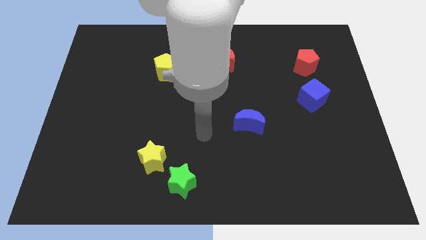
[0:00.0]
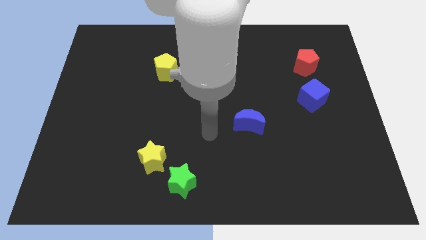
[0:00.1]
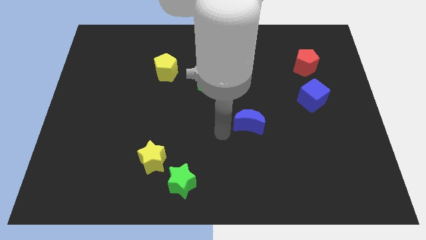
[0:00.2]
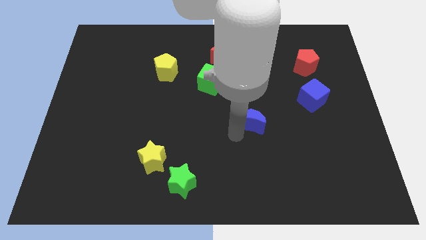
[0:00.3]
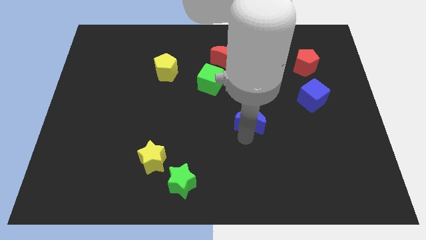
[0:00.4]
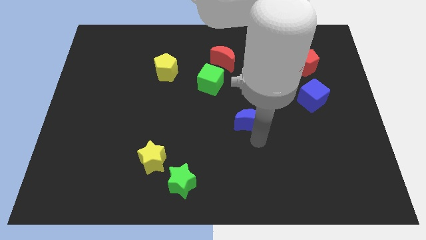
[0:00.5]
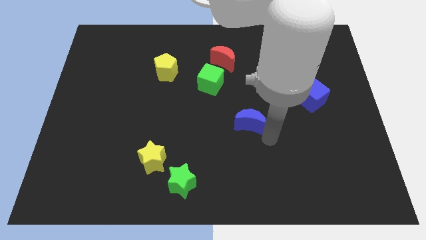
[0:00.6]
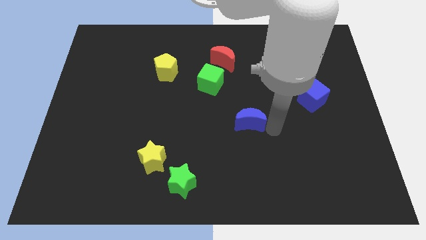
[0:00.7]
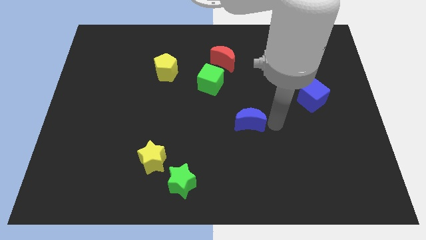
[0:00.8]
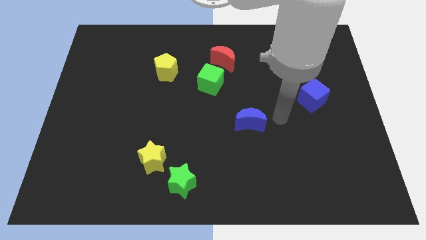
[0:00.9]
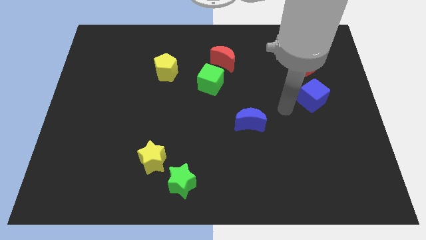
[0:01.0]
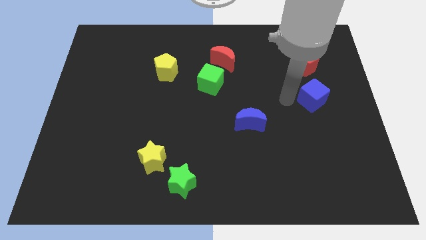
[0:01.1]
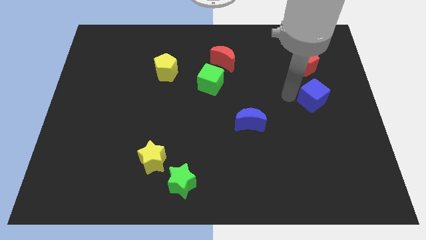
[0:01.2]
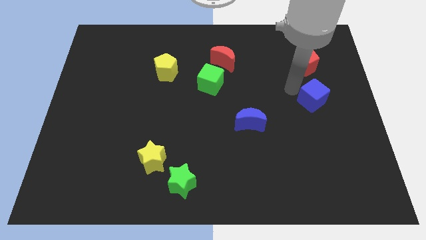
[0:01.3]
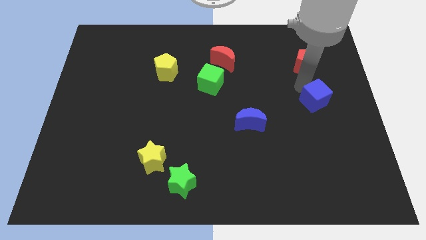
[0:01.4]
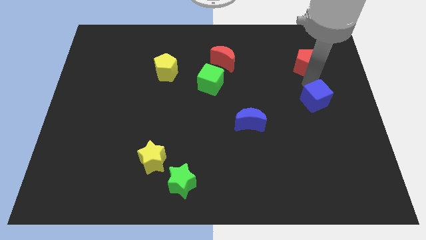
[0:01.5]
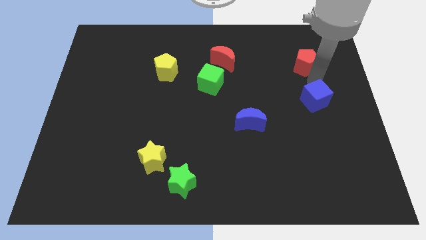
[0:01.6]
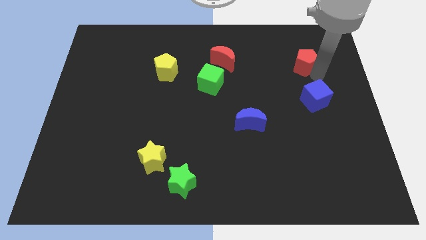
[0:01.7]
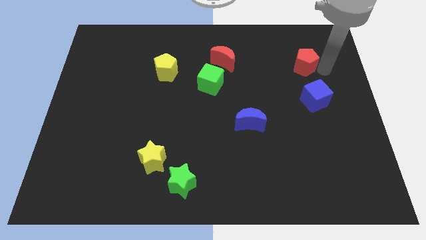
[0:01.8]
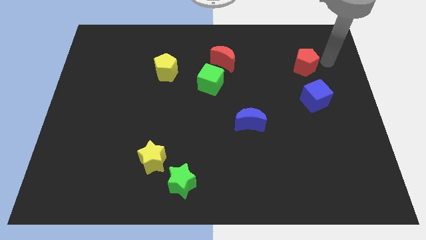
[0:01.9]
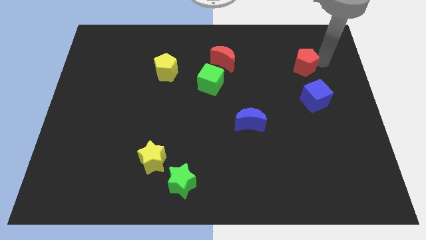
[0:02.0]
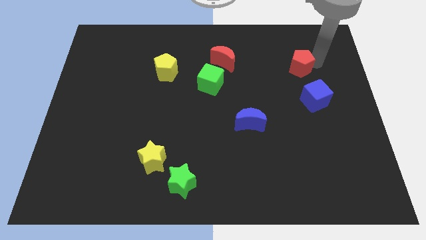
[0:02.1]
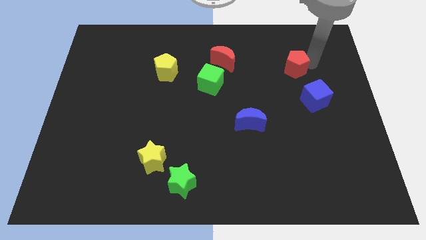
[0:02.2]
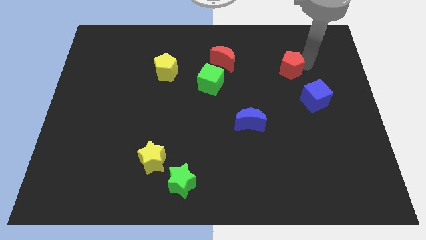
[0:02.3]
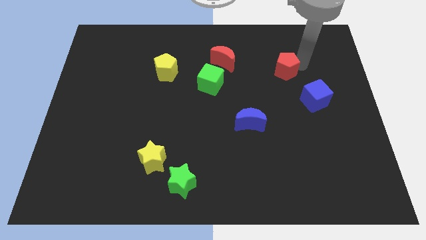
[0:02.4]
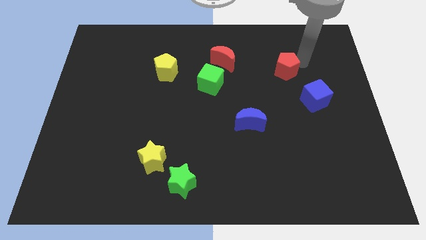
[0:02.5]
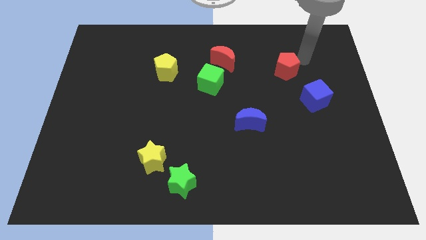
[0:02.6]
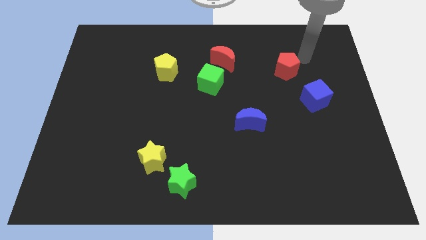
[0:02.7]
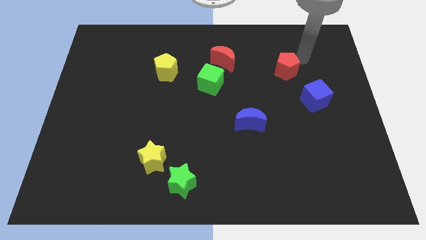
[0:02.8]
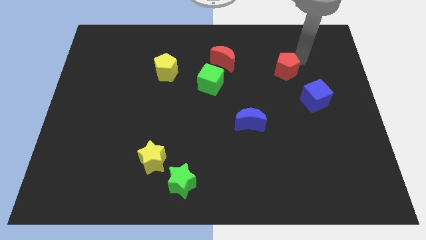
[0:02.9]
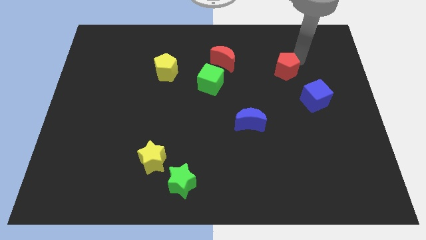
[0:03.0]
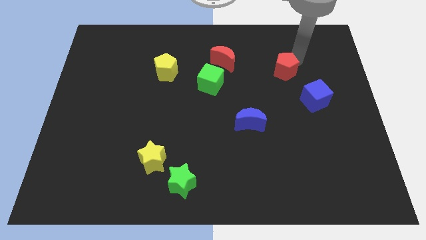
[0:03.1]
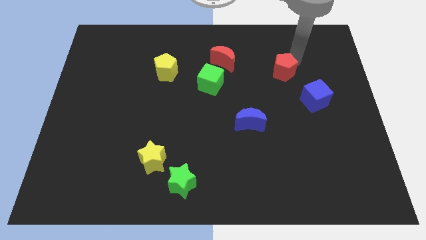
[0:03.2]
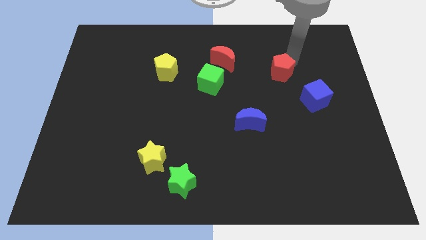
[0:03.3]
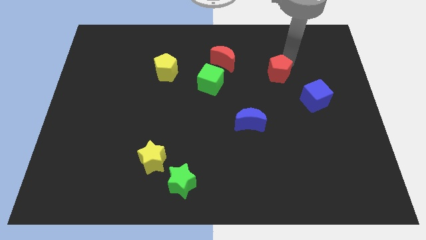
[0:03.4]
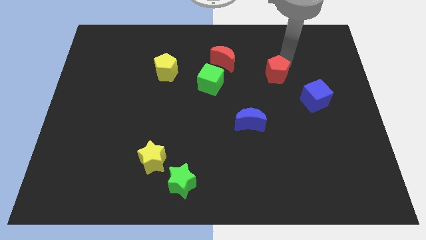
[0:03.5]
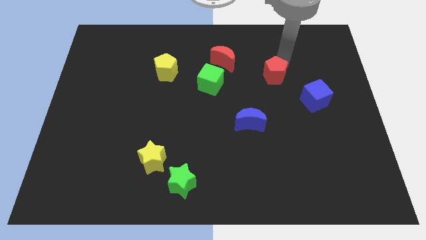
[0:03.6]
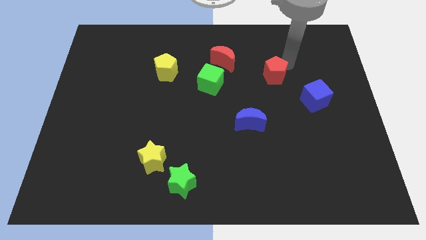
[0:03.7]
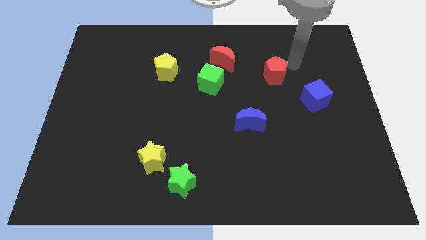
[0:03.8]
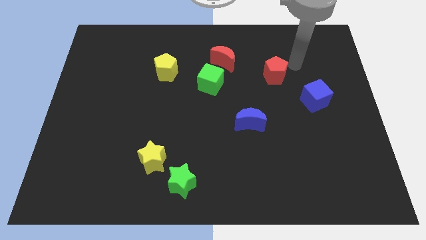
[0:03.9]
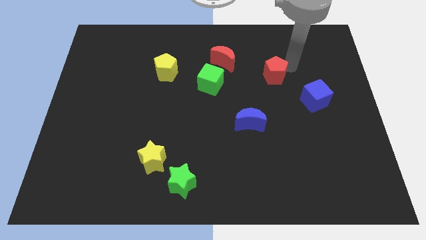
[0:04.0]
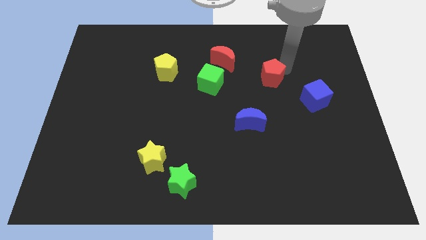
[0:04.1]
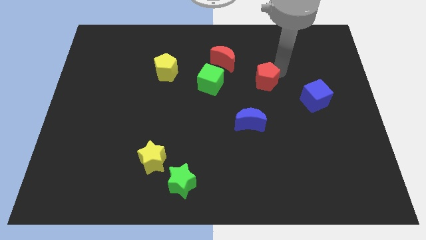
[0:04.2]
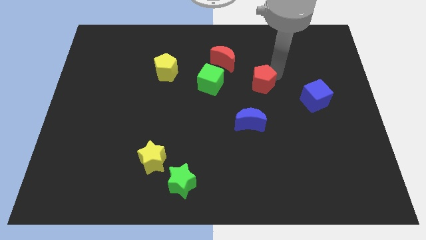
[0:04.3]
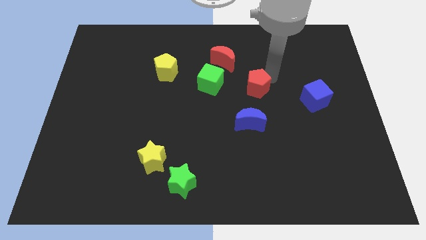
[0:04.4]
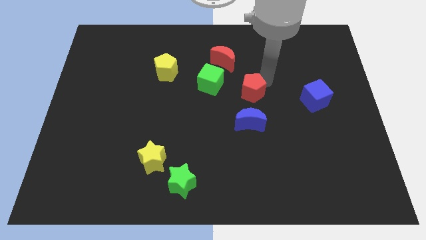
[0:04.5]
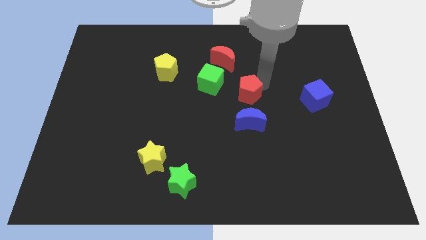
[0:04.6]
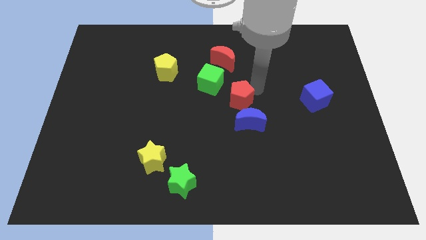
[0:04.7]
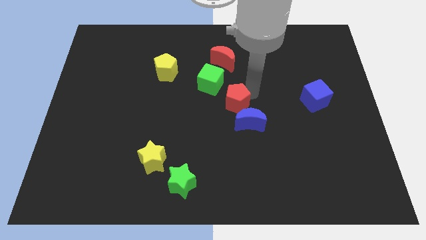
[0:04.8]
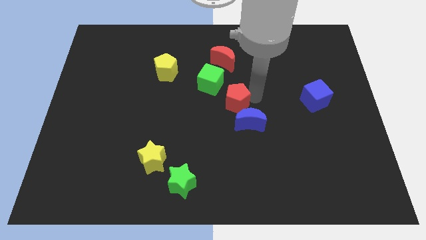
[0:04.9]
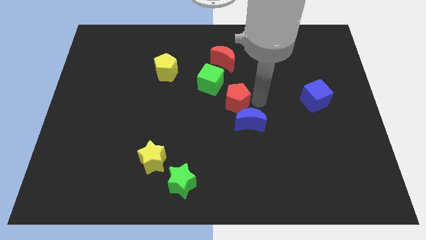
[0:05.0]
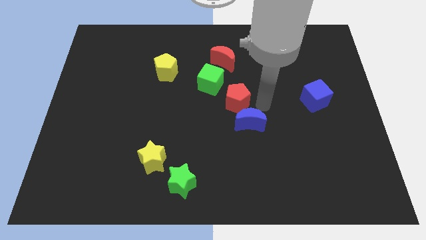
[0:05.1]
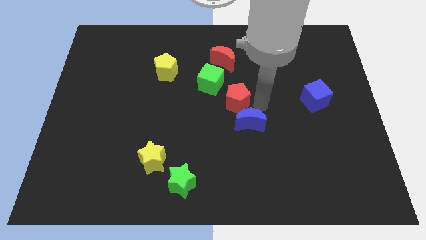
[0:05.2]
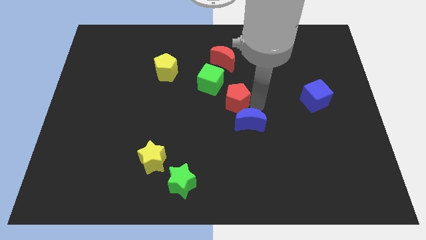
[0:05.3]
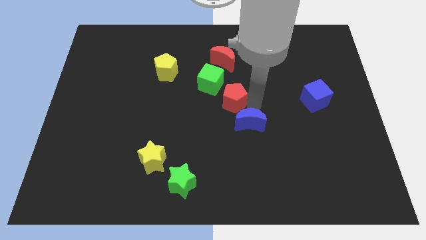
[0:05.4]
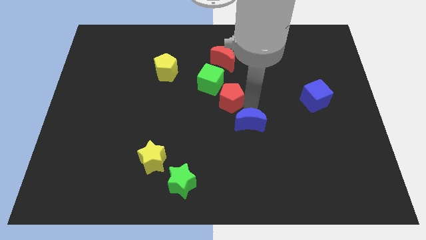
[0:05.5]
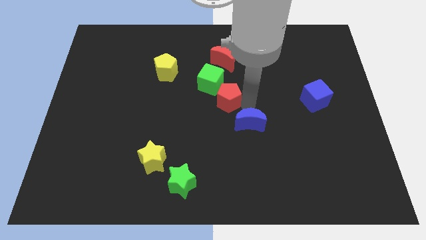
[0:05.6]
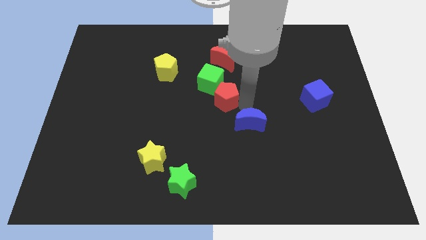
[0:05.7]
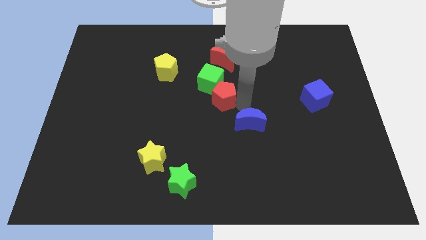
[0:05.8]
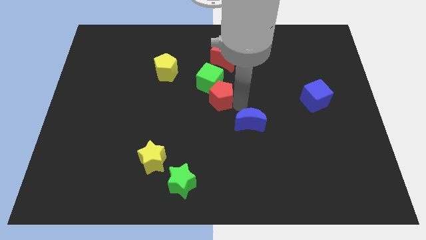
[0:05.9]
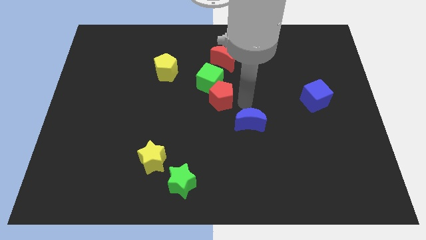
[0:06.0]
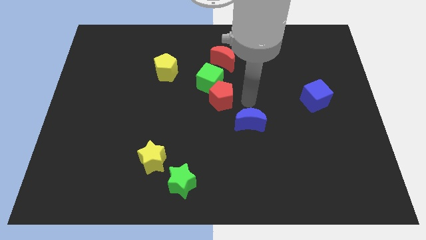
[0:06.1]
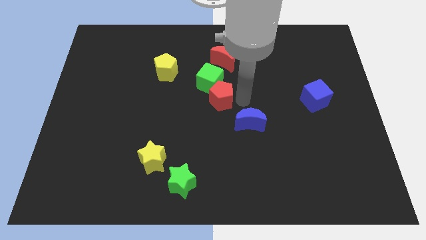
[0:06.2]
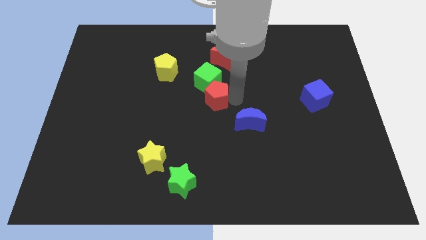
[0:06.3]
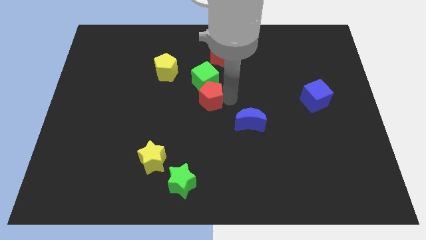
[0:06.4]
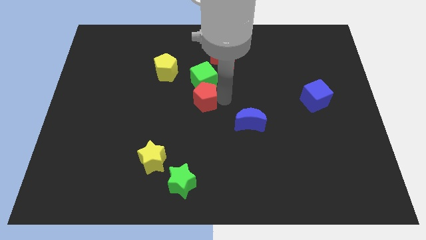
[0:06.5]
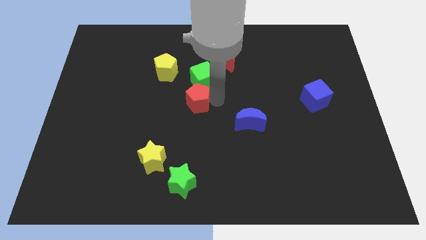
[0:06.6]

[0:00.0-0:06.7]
slide the red pentagon to the bottom right of the yellow pentagon
